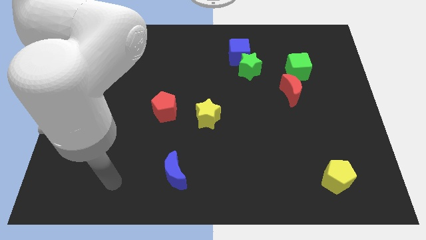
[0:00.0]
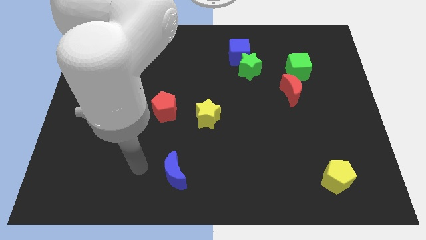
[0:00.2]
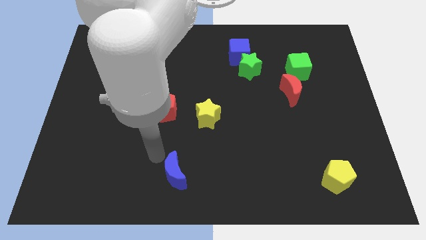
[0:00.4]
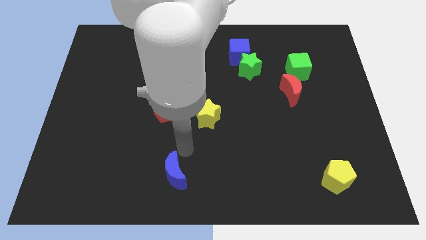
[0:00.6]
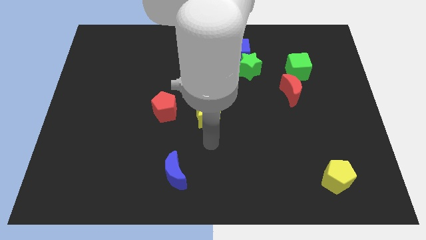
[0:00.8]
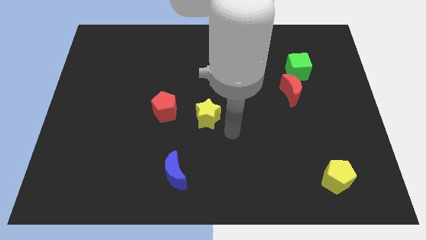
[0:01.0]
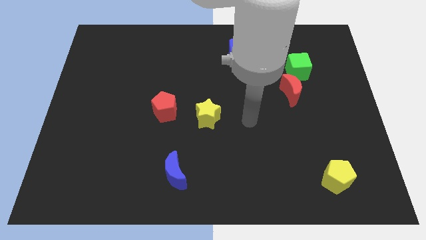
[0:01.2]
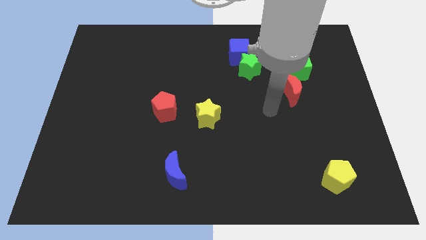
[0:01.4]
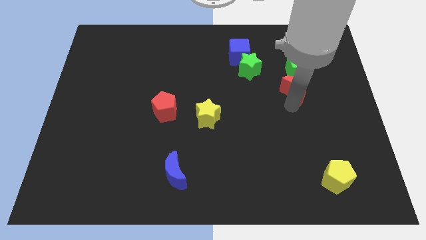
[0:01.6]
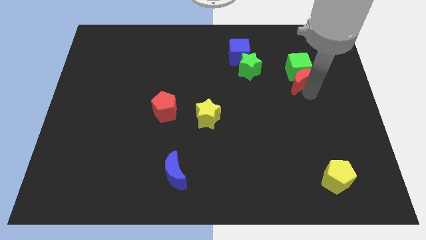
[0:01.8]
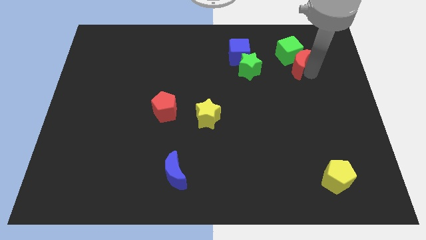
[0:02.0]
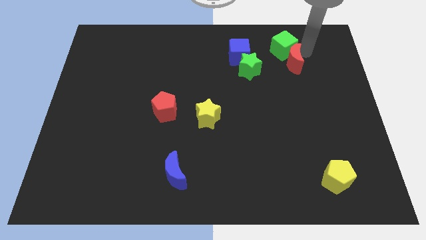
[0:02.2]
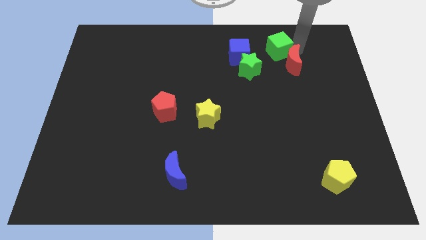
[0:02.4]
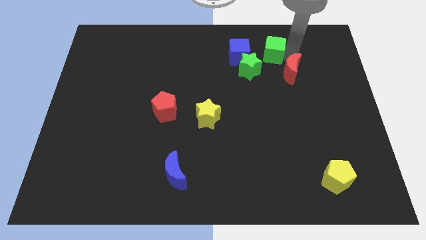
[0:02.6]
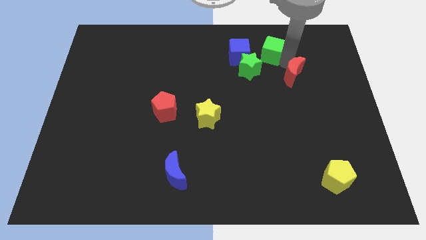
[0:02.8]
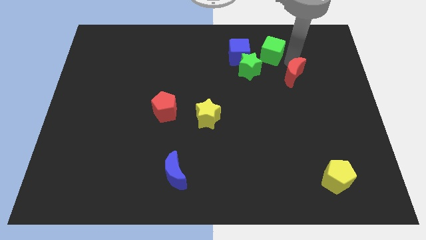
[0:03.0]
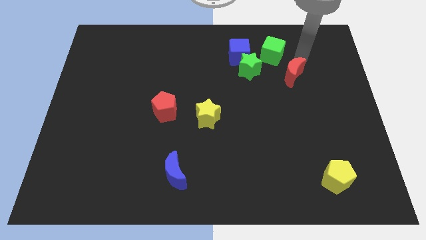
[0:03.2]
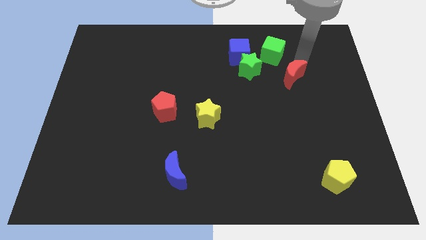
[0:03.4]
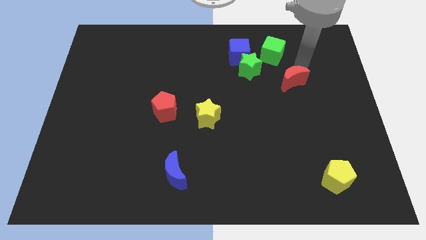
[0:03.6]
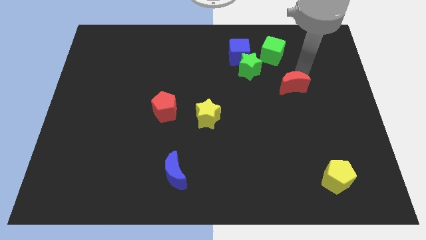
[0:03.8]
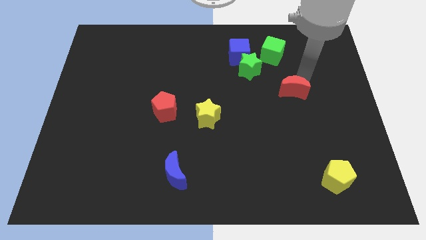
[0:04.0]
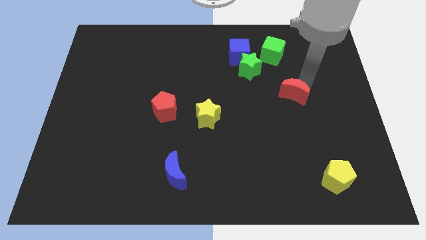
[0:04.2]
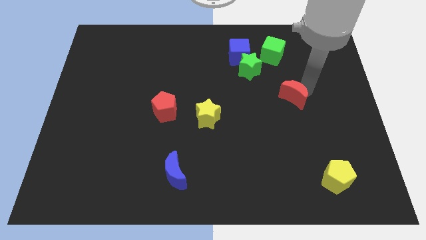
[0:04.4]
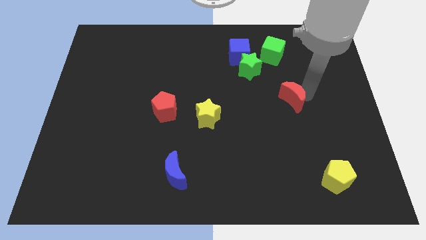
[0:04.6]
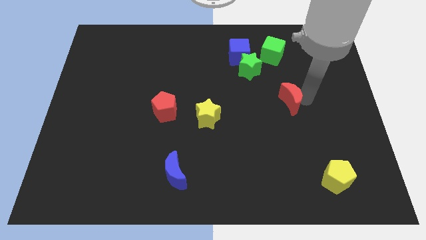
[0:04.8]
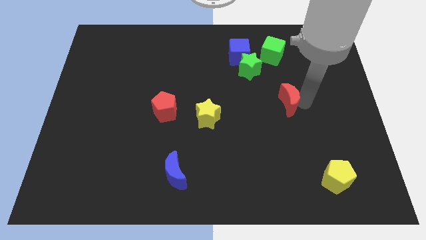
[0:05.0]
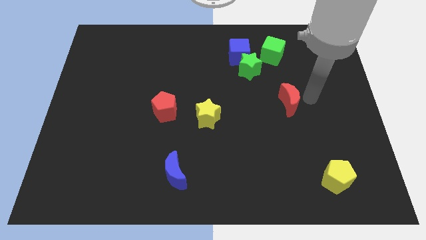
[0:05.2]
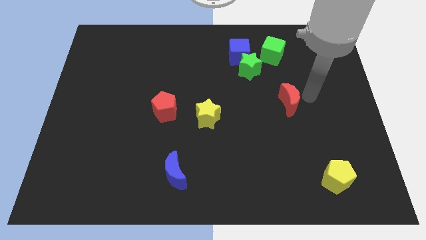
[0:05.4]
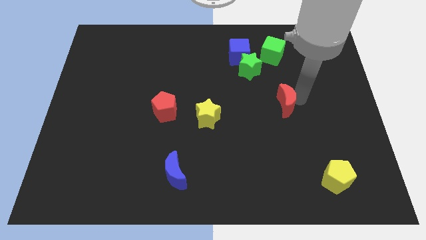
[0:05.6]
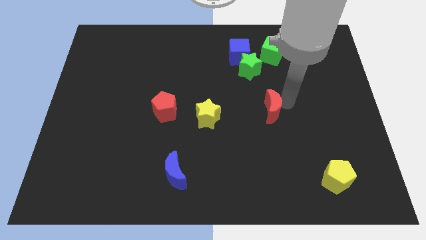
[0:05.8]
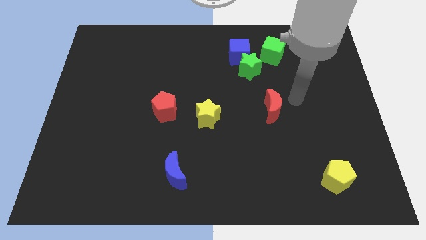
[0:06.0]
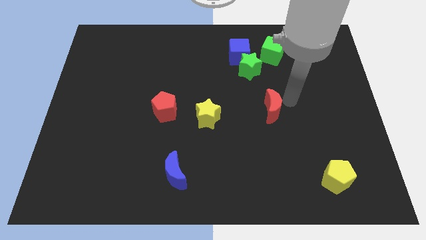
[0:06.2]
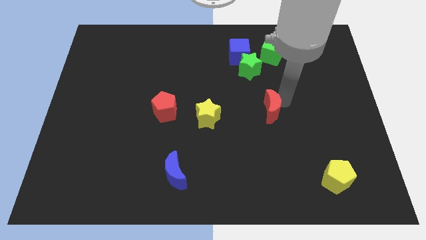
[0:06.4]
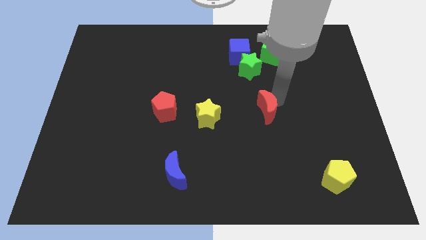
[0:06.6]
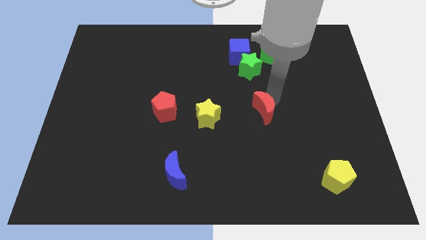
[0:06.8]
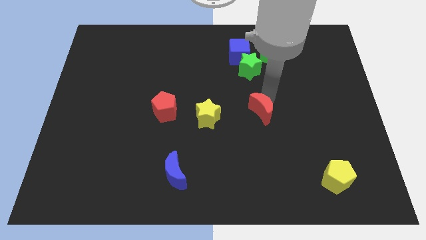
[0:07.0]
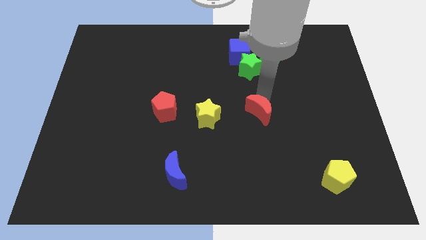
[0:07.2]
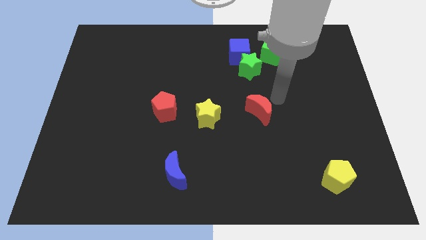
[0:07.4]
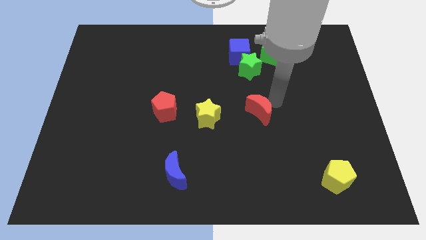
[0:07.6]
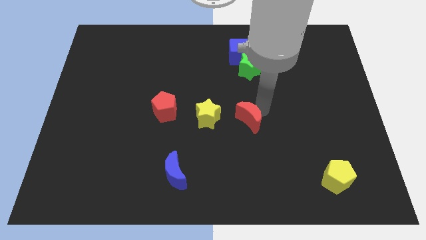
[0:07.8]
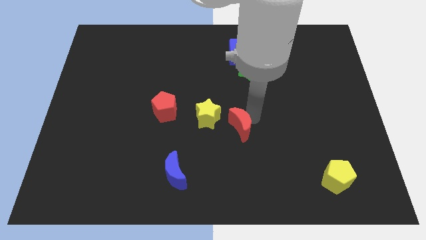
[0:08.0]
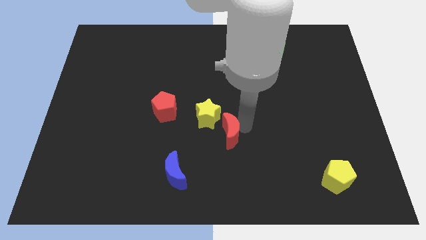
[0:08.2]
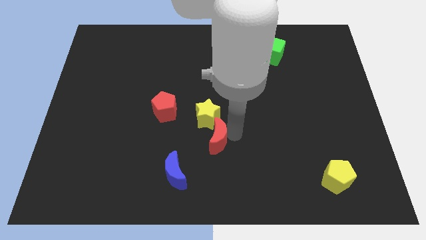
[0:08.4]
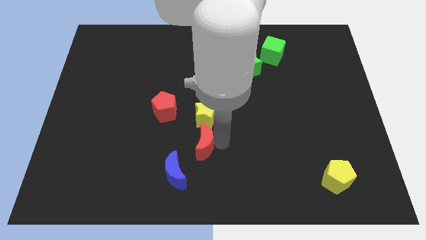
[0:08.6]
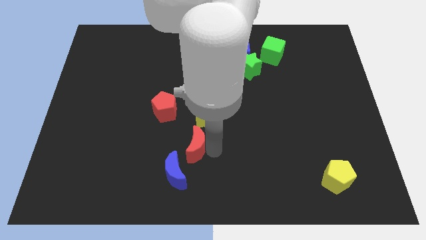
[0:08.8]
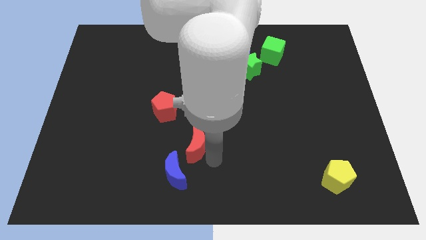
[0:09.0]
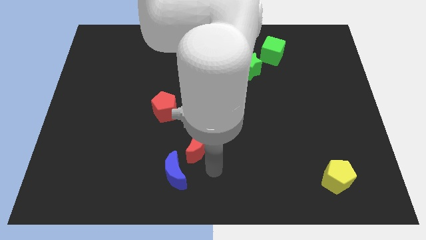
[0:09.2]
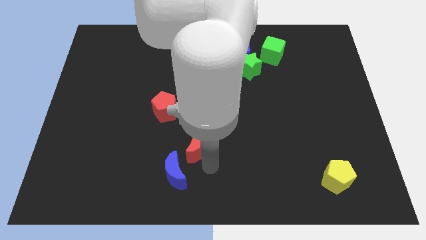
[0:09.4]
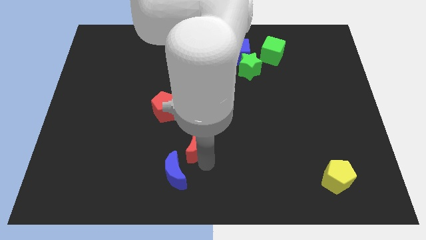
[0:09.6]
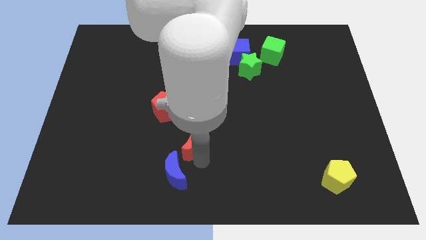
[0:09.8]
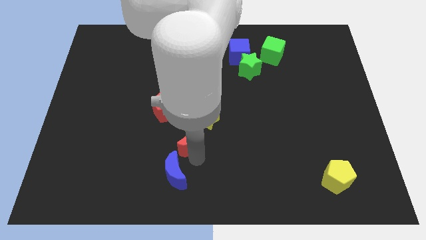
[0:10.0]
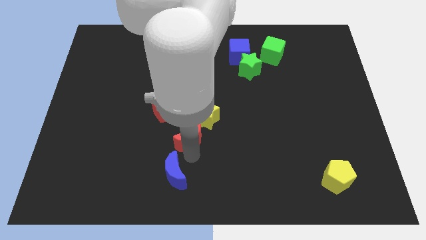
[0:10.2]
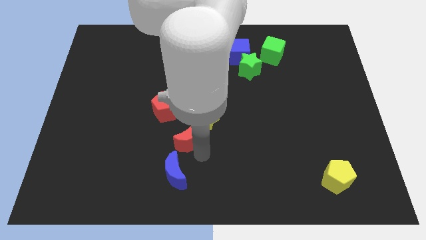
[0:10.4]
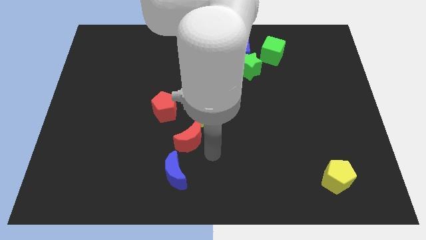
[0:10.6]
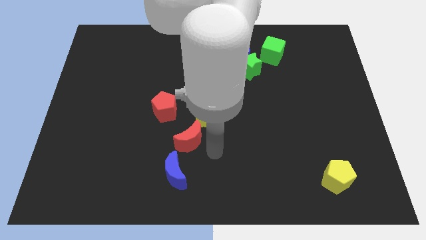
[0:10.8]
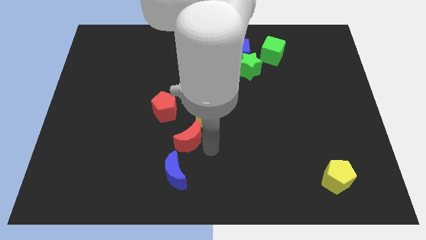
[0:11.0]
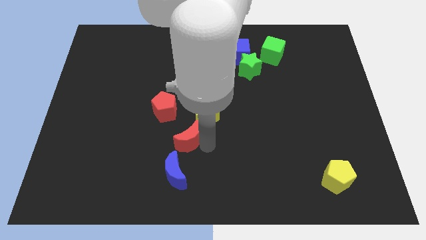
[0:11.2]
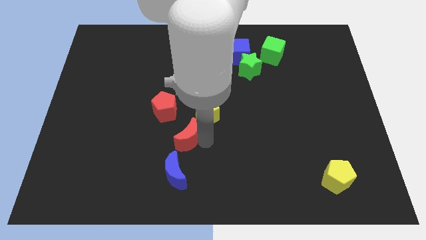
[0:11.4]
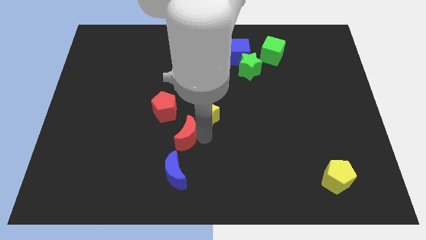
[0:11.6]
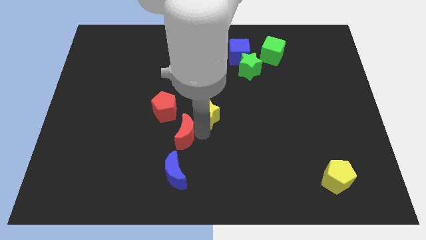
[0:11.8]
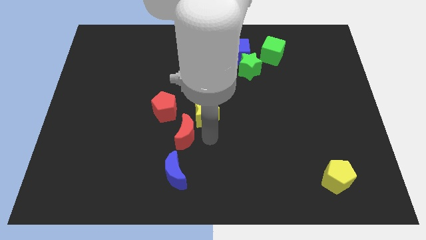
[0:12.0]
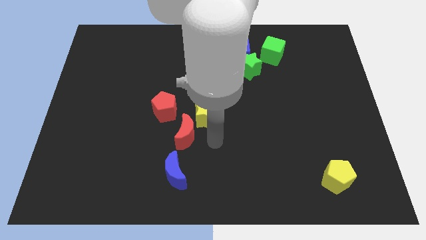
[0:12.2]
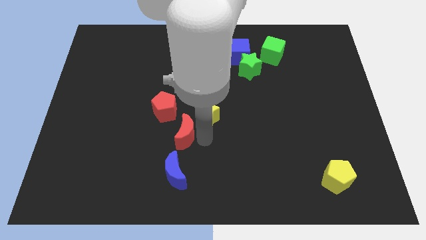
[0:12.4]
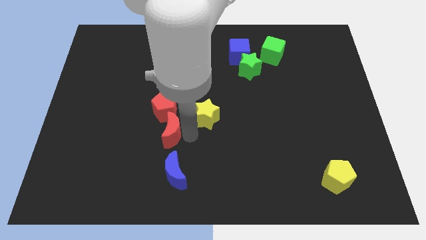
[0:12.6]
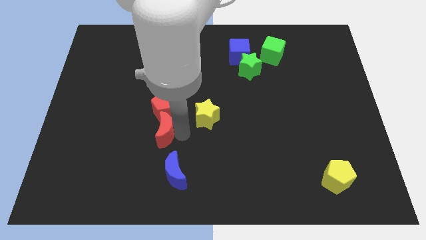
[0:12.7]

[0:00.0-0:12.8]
move the red moon diagonally down and to the left of the red pentagon
